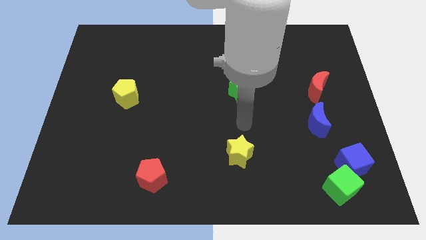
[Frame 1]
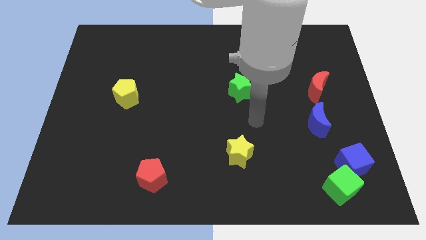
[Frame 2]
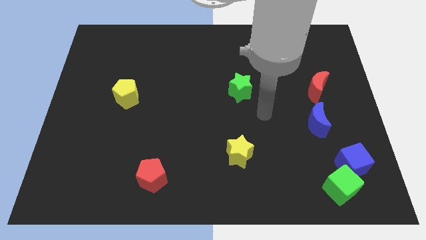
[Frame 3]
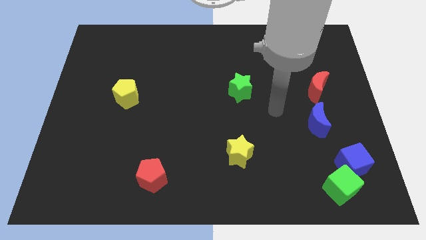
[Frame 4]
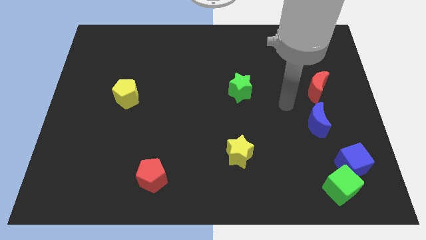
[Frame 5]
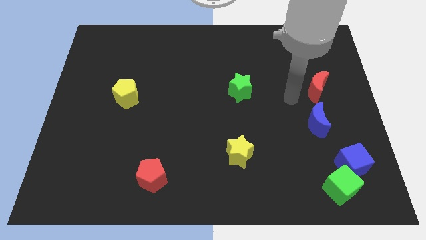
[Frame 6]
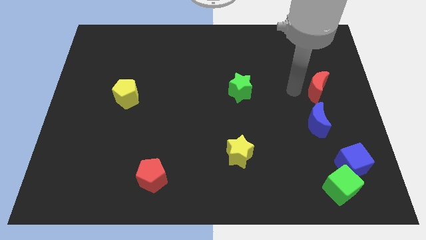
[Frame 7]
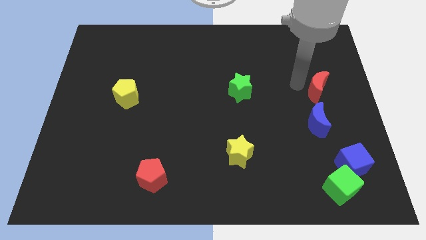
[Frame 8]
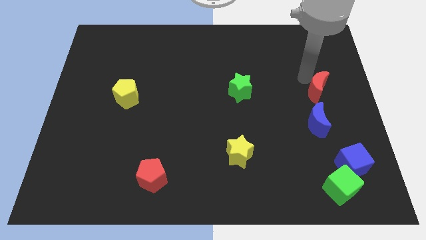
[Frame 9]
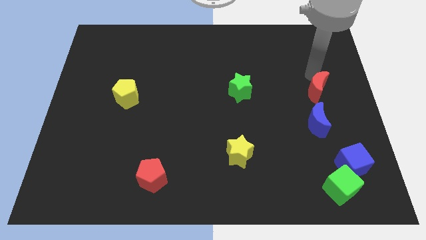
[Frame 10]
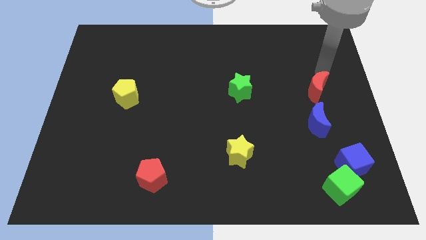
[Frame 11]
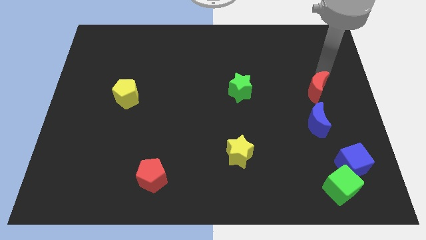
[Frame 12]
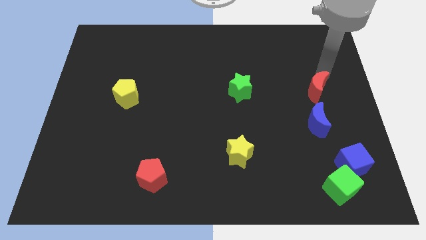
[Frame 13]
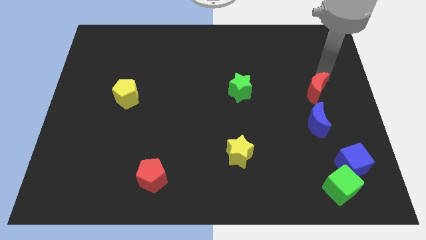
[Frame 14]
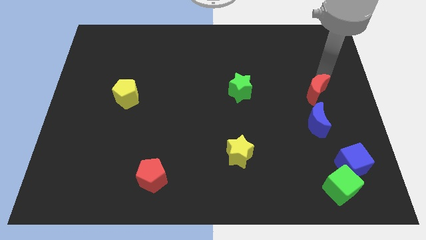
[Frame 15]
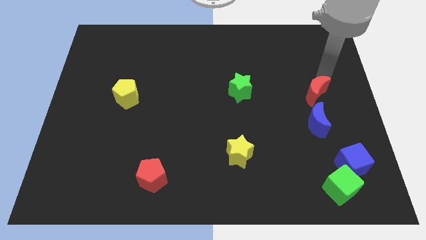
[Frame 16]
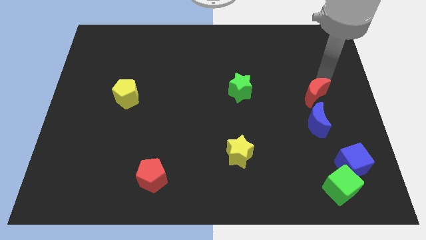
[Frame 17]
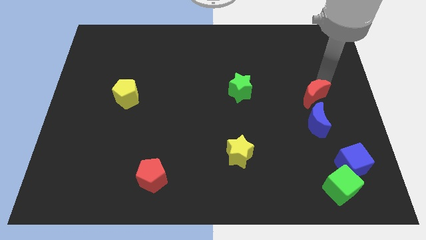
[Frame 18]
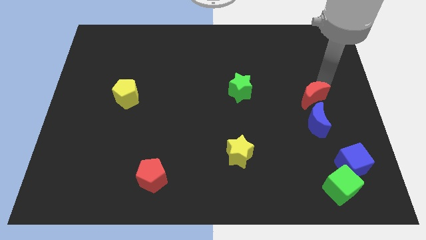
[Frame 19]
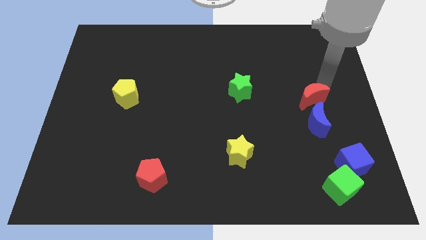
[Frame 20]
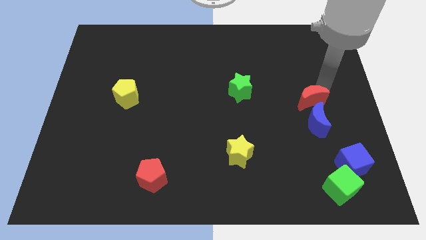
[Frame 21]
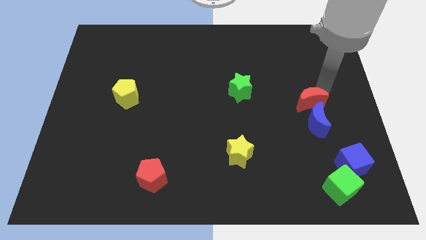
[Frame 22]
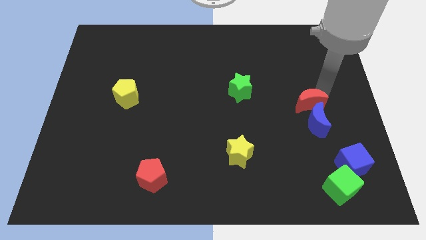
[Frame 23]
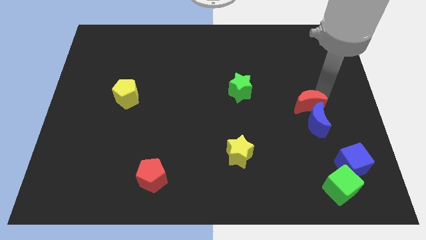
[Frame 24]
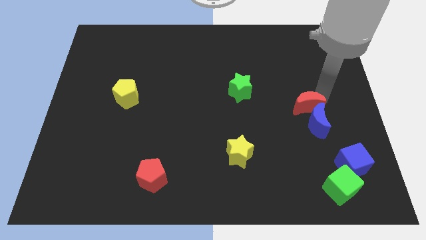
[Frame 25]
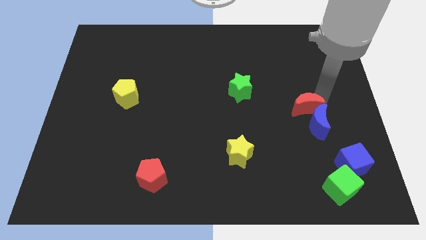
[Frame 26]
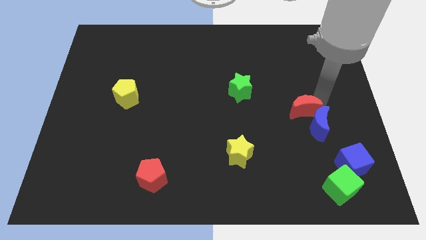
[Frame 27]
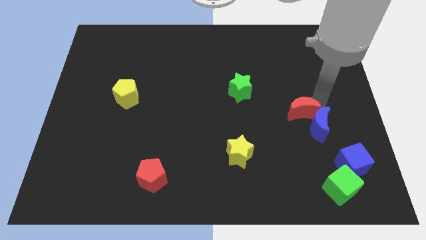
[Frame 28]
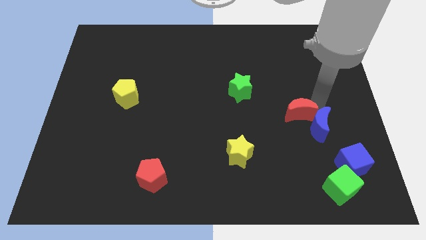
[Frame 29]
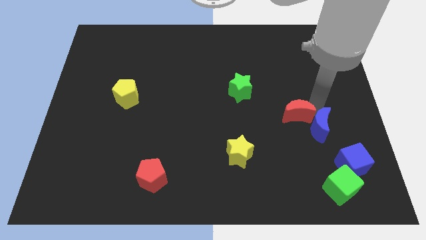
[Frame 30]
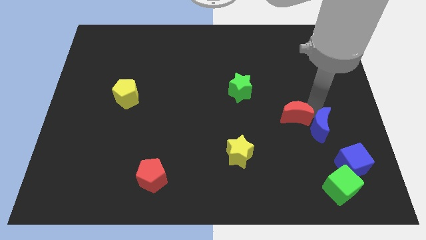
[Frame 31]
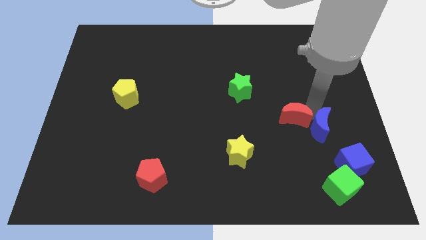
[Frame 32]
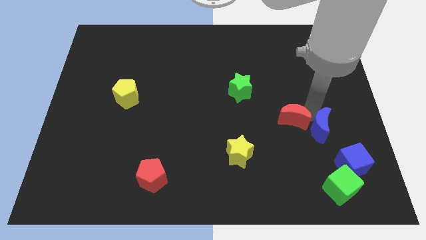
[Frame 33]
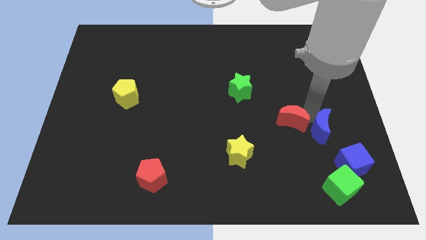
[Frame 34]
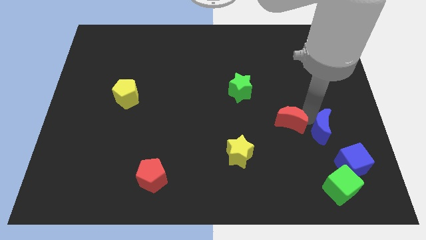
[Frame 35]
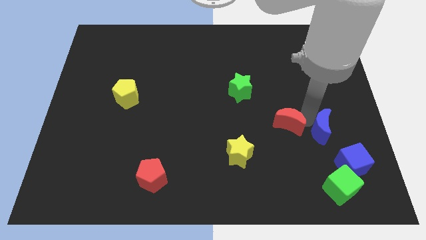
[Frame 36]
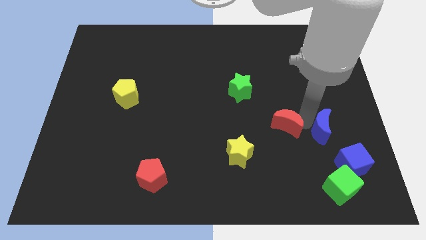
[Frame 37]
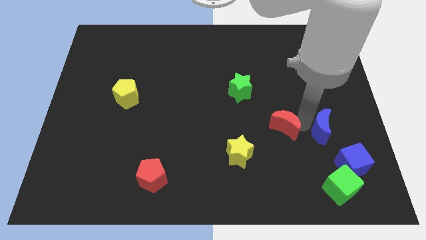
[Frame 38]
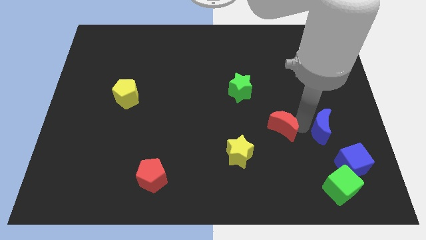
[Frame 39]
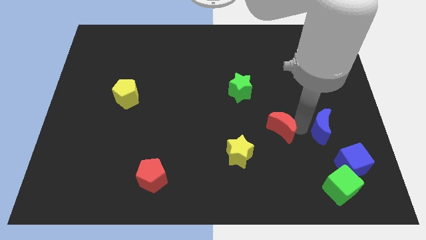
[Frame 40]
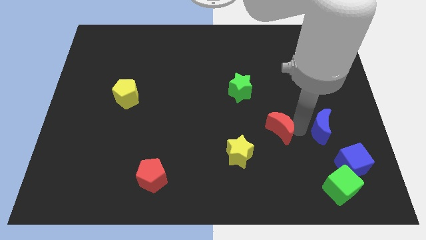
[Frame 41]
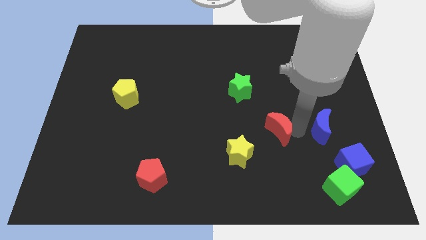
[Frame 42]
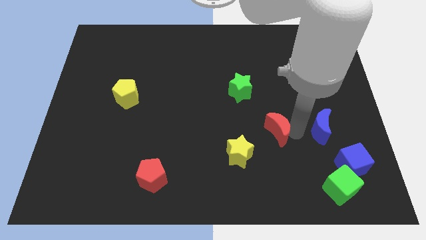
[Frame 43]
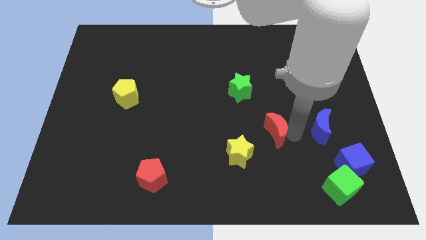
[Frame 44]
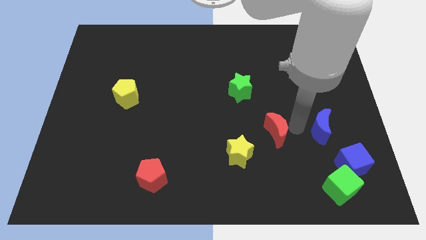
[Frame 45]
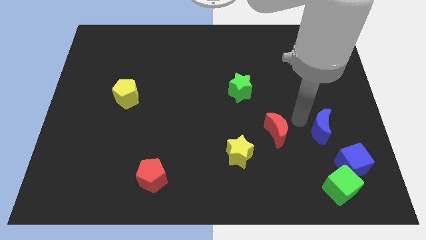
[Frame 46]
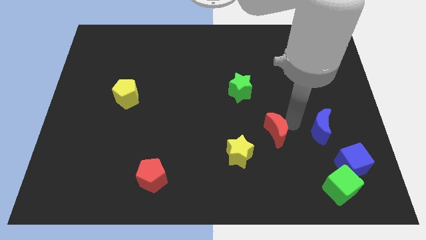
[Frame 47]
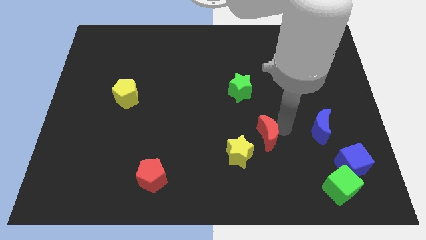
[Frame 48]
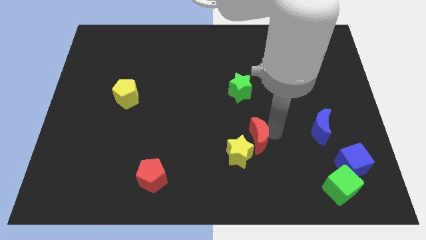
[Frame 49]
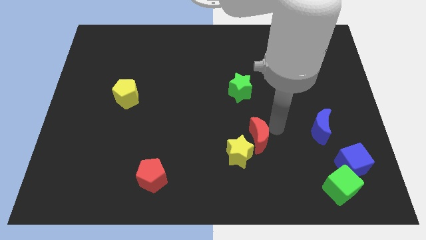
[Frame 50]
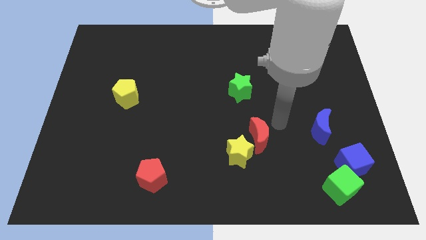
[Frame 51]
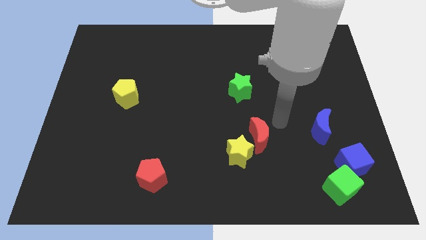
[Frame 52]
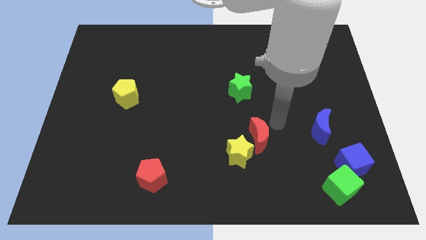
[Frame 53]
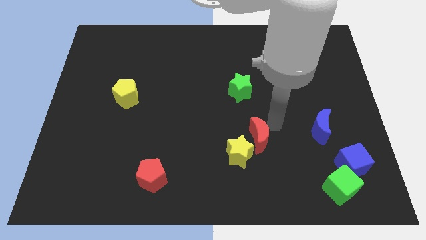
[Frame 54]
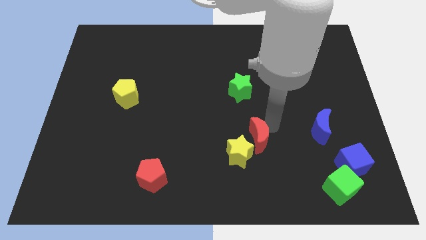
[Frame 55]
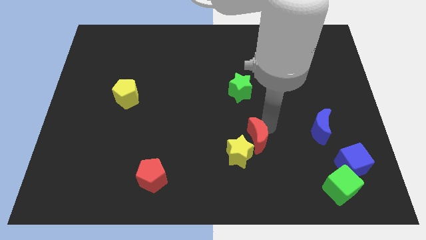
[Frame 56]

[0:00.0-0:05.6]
push the red moon to the yellow star

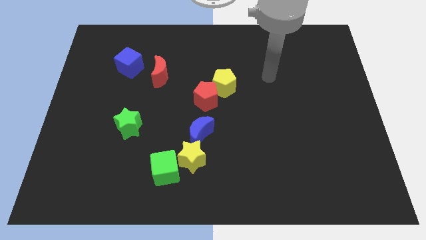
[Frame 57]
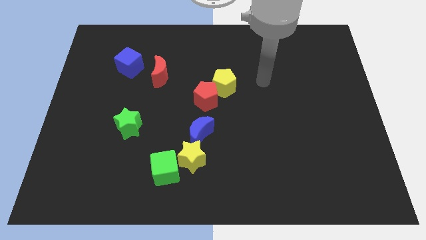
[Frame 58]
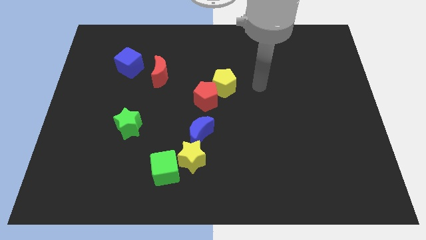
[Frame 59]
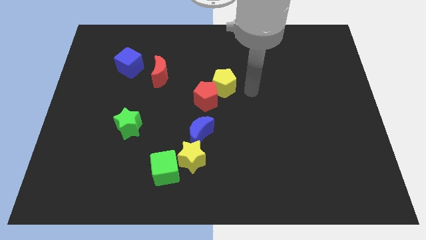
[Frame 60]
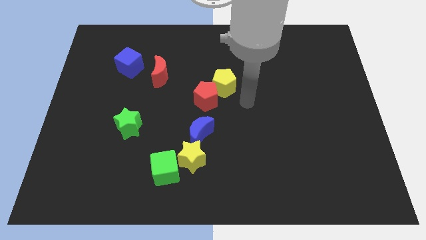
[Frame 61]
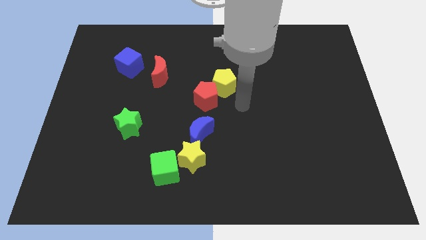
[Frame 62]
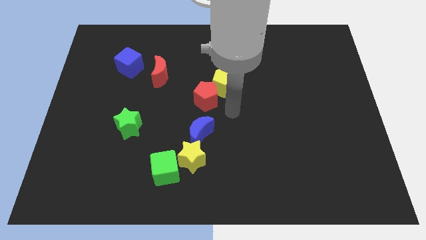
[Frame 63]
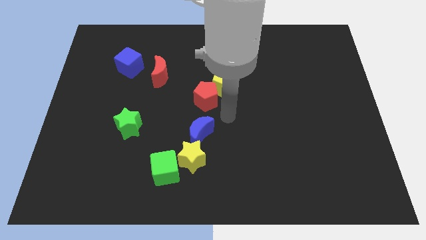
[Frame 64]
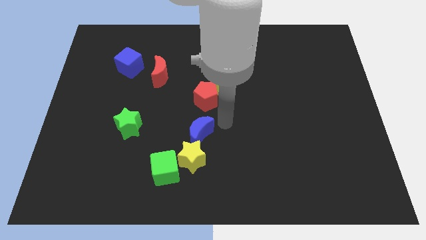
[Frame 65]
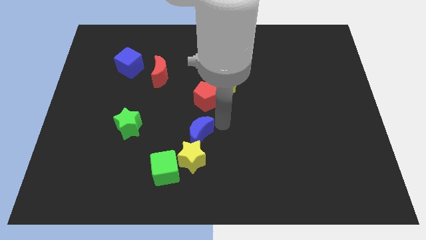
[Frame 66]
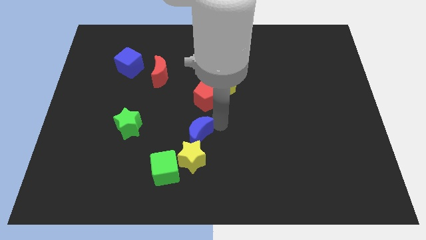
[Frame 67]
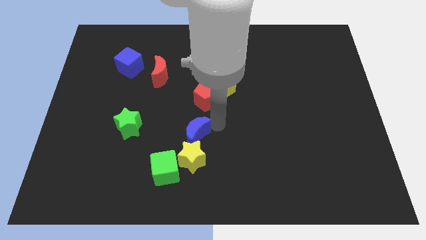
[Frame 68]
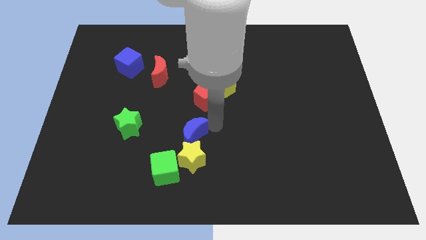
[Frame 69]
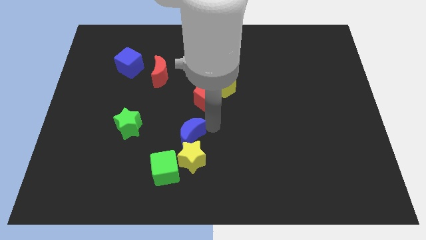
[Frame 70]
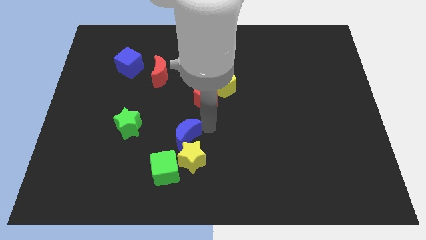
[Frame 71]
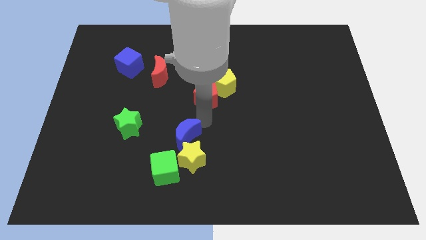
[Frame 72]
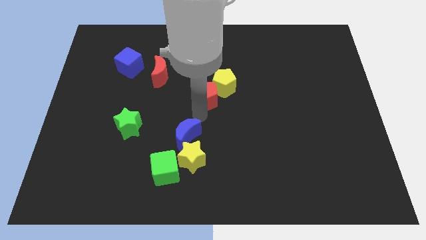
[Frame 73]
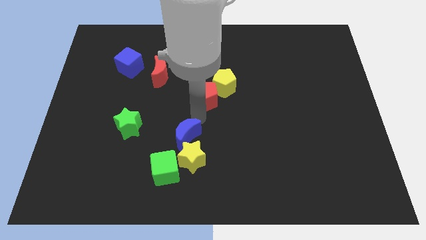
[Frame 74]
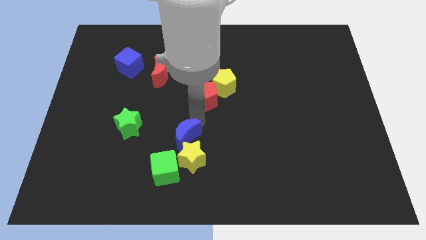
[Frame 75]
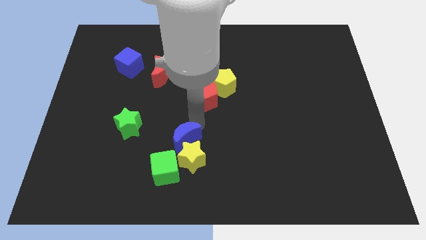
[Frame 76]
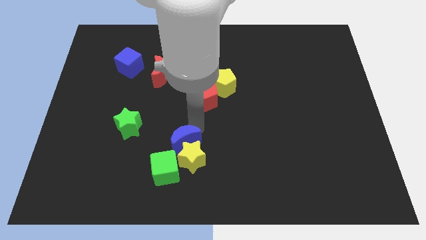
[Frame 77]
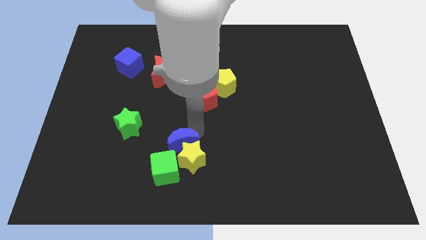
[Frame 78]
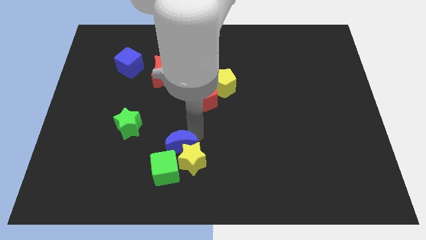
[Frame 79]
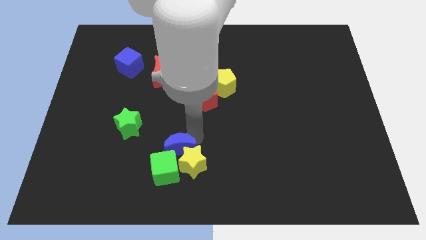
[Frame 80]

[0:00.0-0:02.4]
put the blue moon towards the green cube
